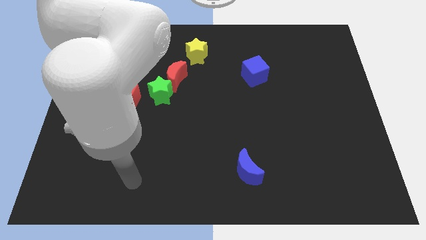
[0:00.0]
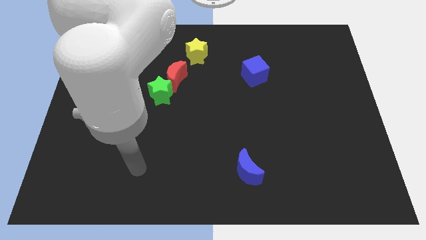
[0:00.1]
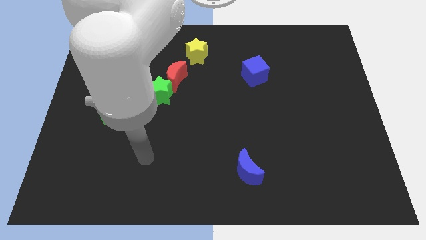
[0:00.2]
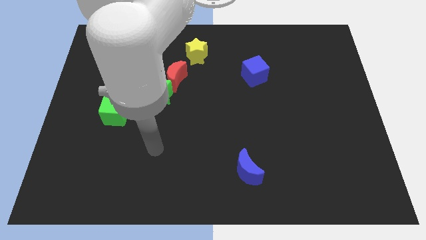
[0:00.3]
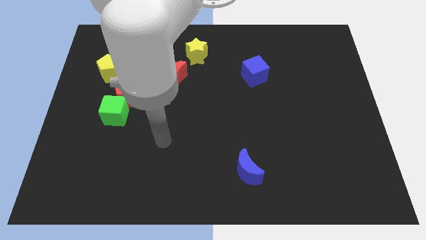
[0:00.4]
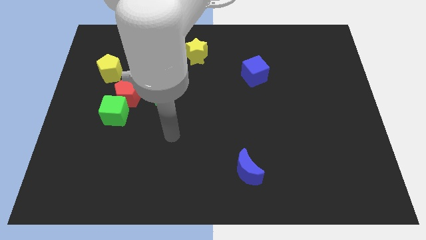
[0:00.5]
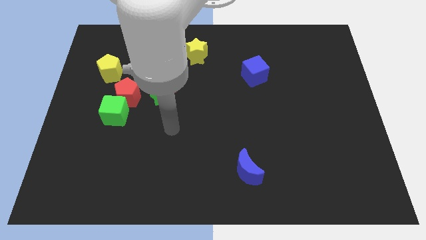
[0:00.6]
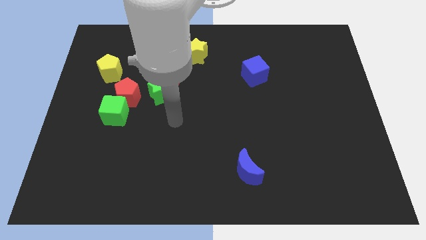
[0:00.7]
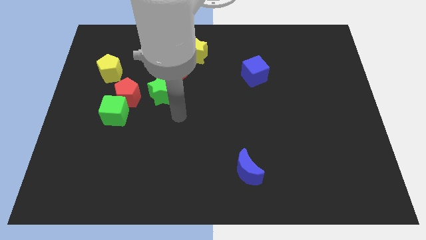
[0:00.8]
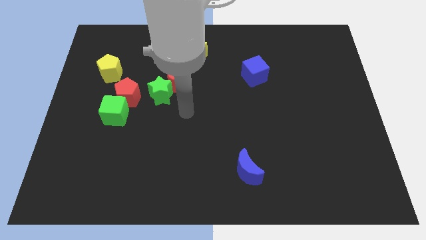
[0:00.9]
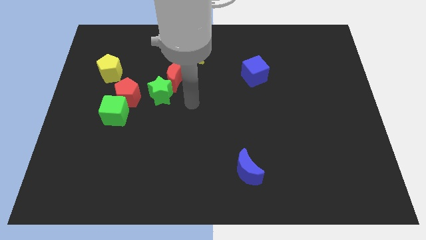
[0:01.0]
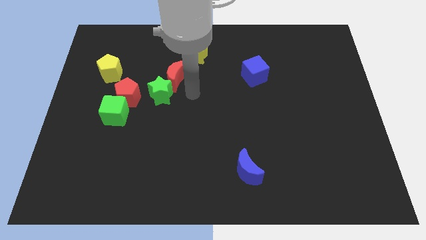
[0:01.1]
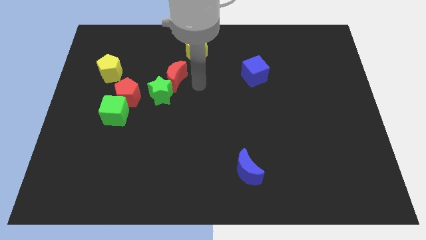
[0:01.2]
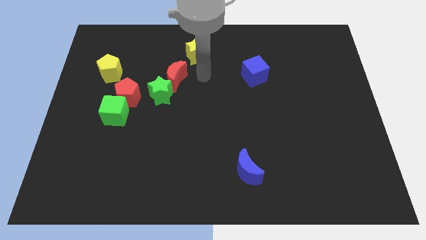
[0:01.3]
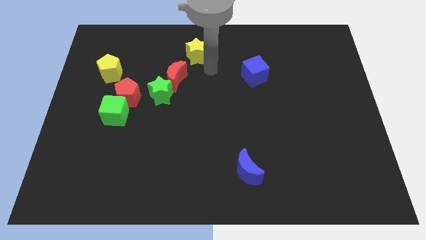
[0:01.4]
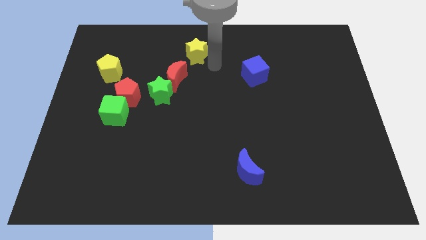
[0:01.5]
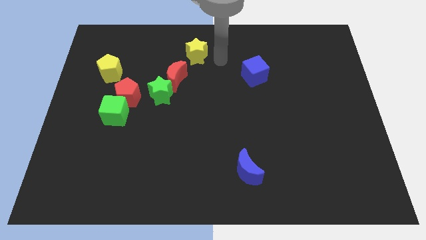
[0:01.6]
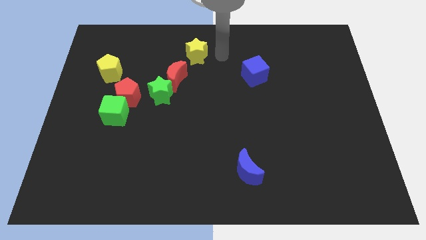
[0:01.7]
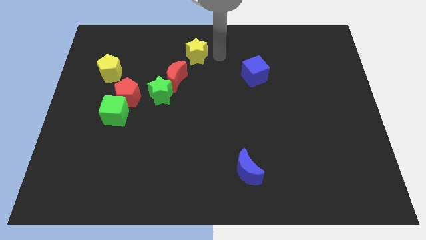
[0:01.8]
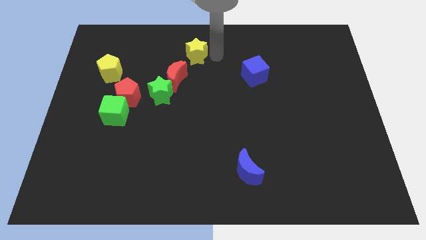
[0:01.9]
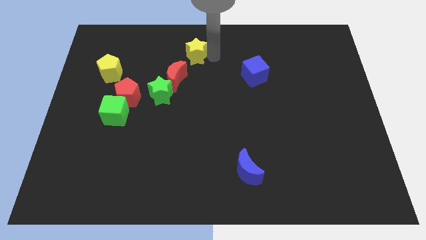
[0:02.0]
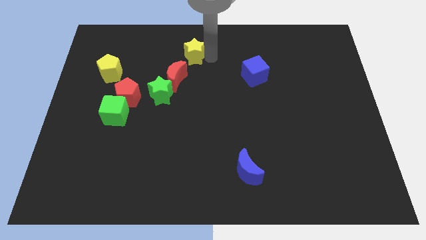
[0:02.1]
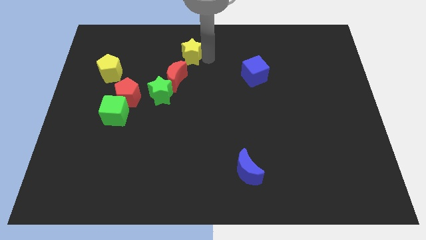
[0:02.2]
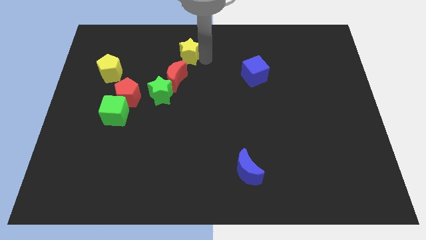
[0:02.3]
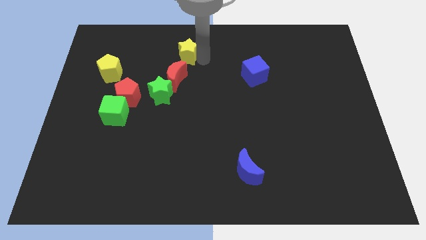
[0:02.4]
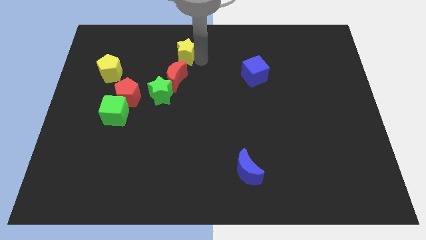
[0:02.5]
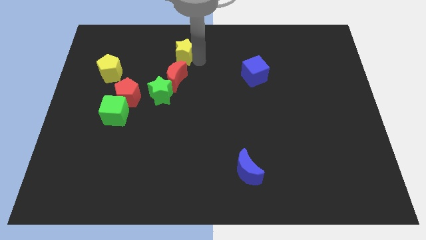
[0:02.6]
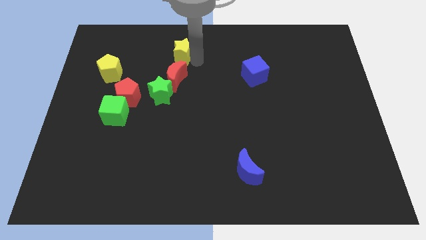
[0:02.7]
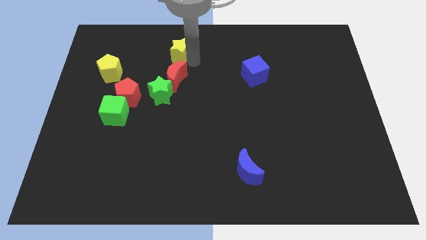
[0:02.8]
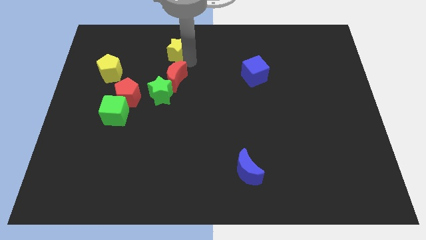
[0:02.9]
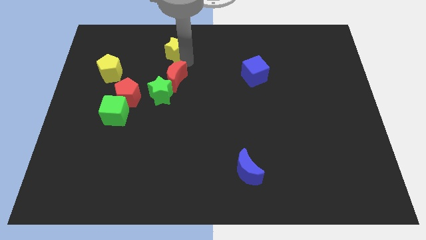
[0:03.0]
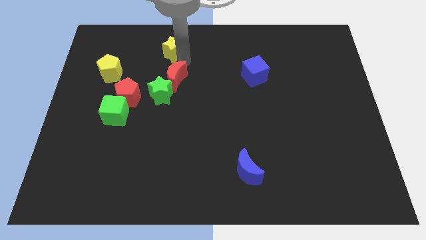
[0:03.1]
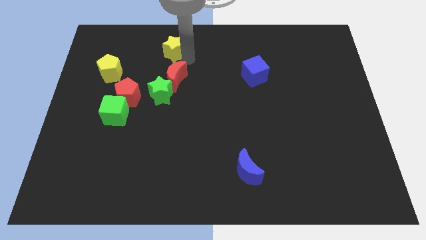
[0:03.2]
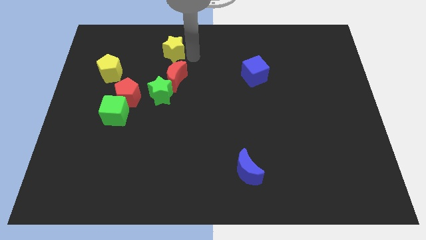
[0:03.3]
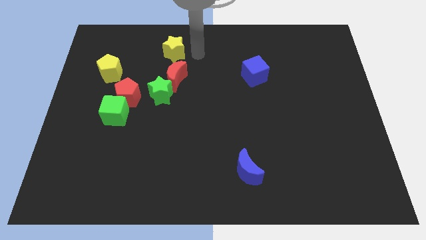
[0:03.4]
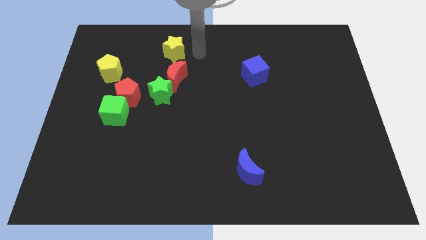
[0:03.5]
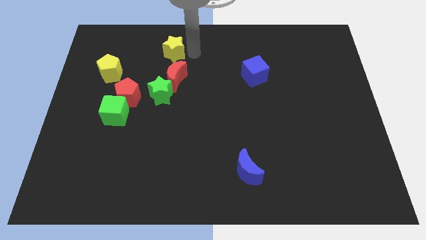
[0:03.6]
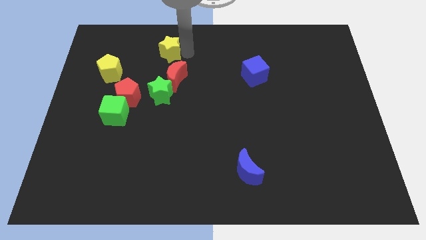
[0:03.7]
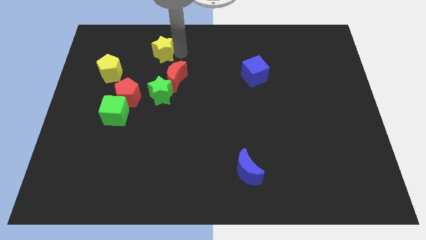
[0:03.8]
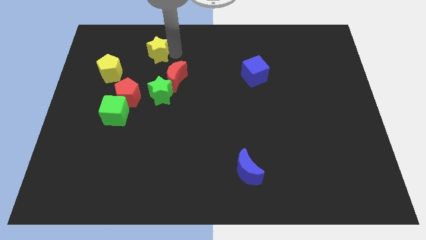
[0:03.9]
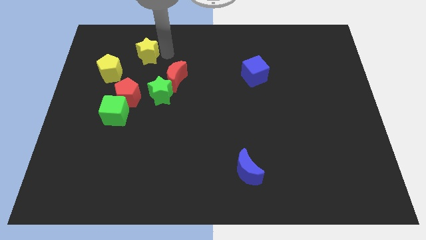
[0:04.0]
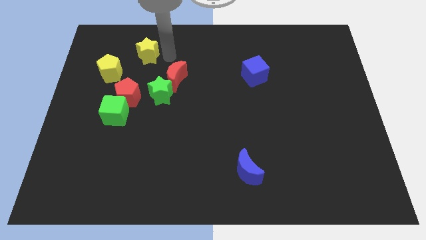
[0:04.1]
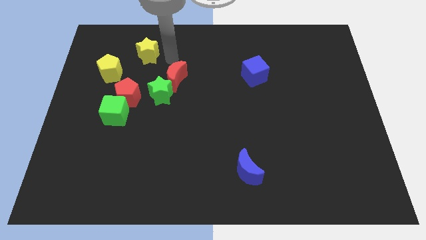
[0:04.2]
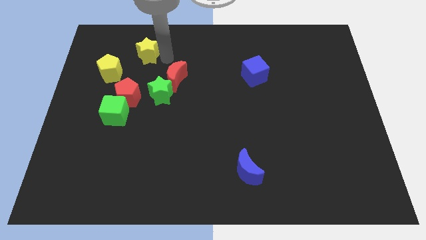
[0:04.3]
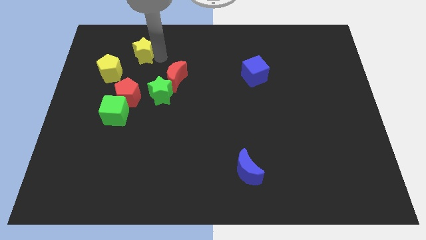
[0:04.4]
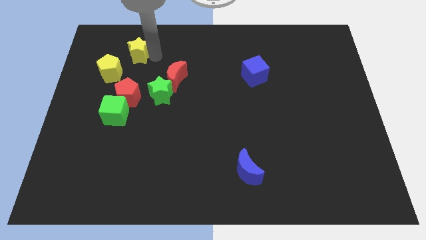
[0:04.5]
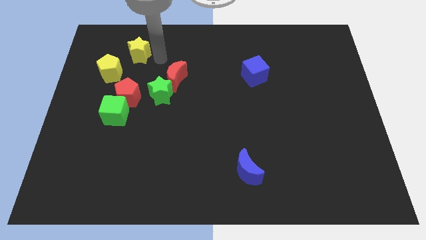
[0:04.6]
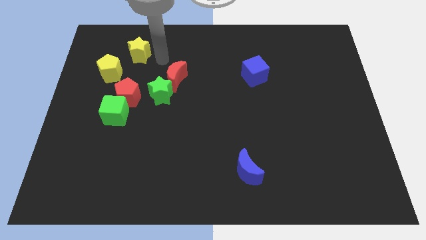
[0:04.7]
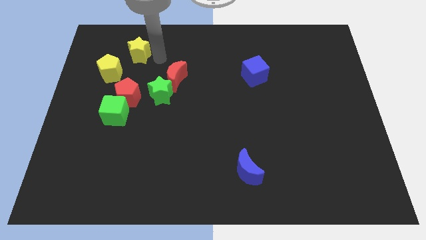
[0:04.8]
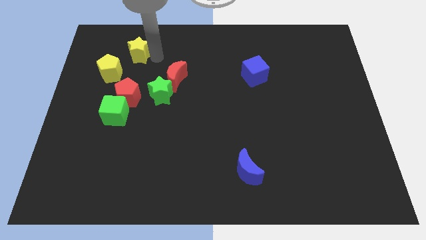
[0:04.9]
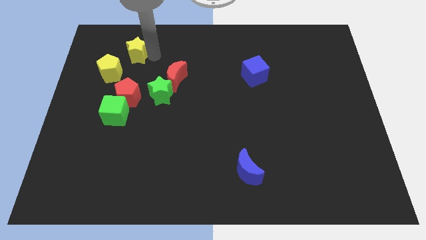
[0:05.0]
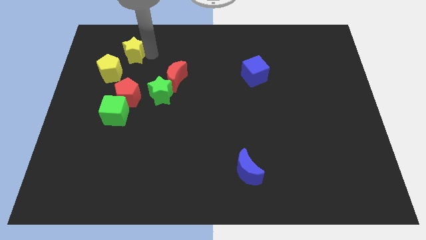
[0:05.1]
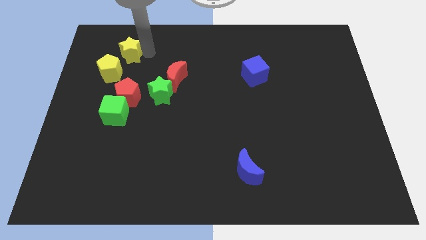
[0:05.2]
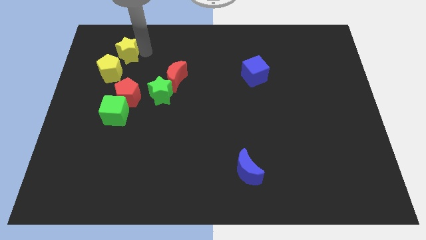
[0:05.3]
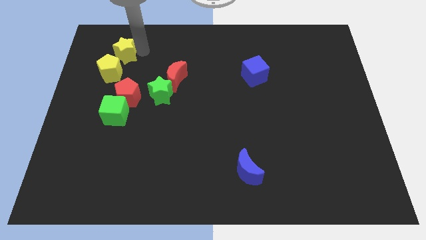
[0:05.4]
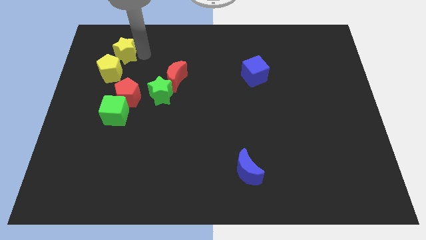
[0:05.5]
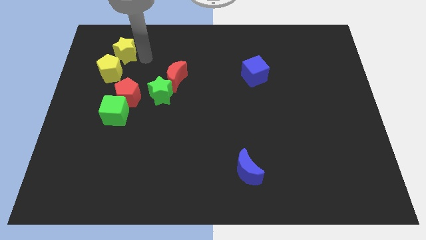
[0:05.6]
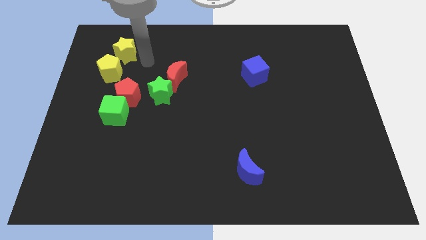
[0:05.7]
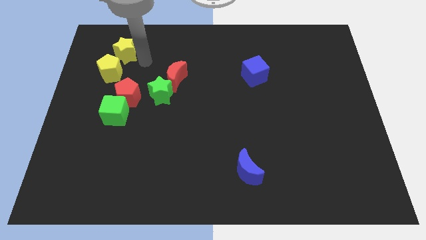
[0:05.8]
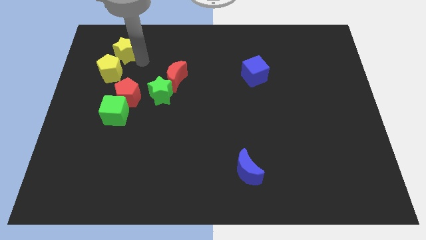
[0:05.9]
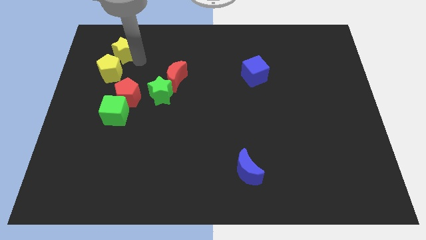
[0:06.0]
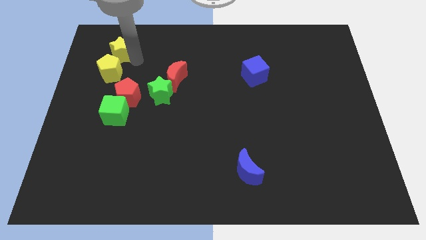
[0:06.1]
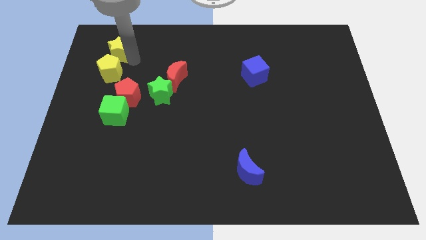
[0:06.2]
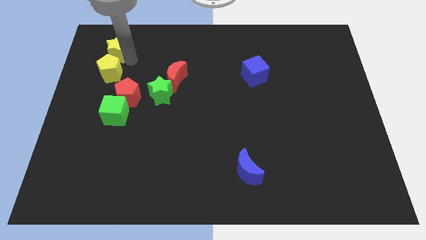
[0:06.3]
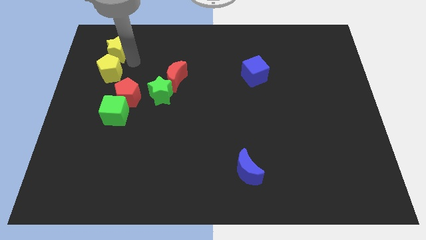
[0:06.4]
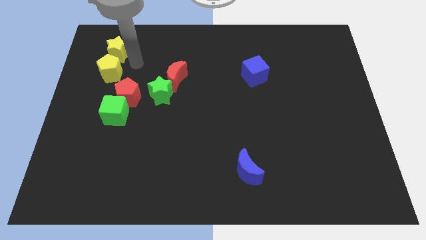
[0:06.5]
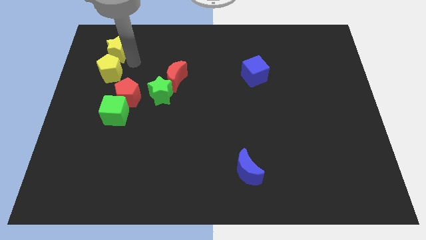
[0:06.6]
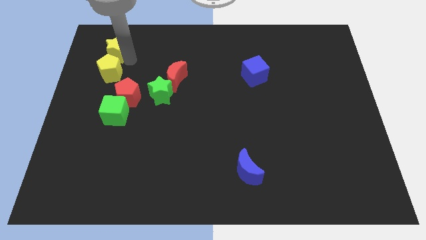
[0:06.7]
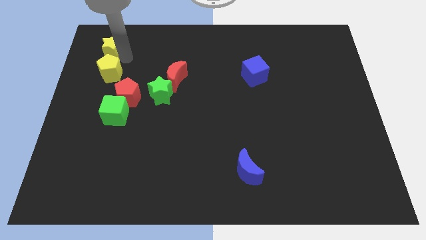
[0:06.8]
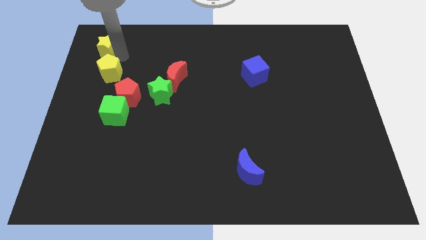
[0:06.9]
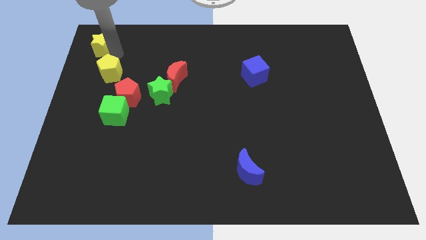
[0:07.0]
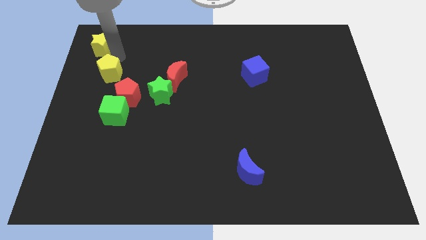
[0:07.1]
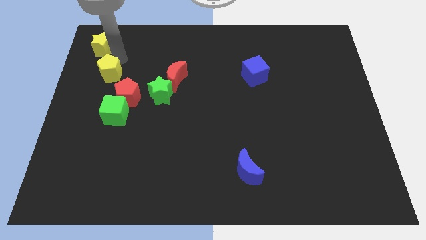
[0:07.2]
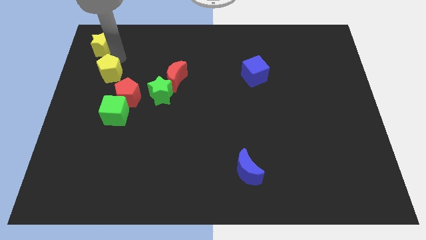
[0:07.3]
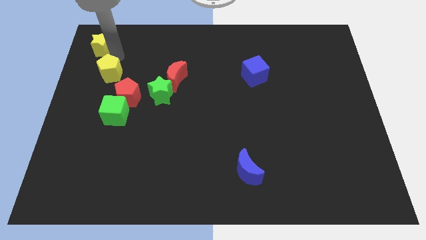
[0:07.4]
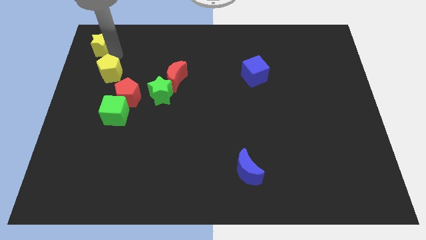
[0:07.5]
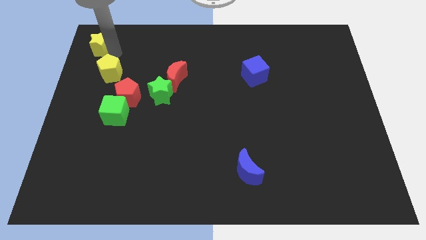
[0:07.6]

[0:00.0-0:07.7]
push the yellow star to the top left of the board
